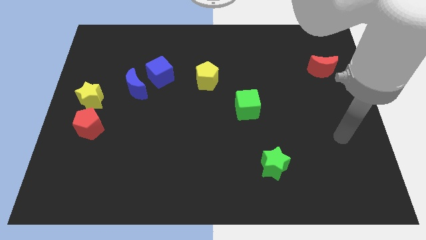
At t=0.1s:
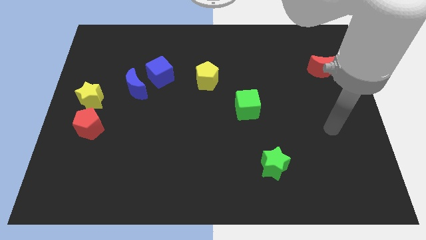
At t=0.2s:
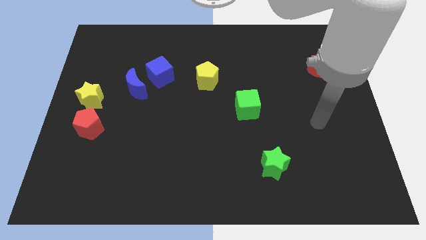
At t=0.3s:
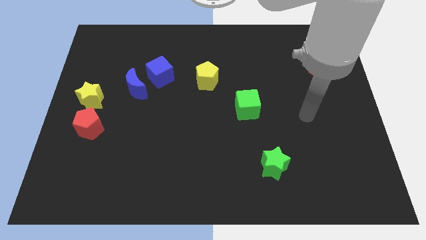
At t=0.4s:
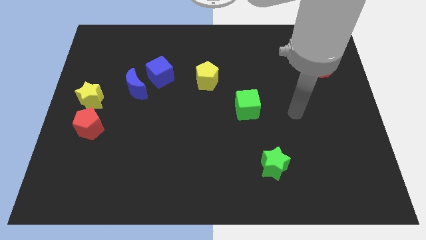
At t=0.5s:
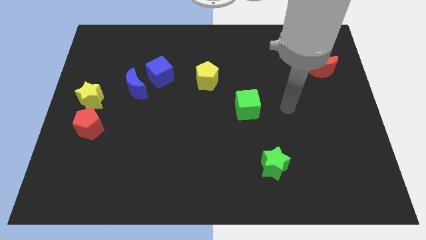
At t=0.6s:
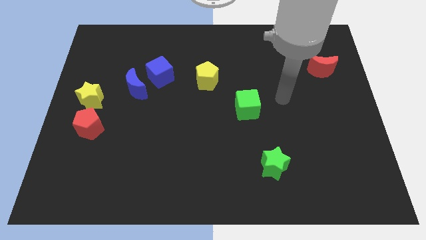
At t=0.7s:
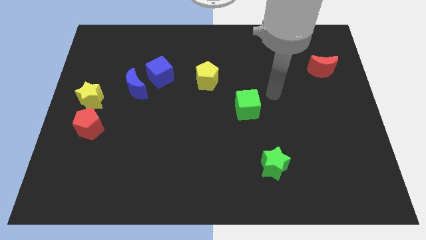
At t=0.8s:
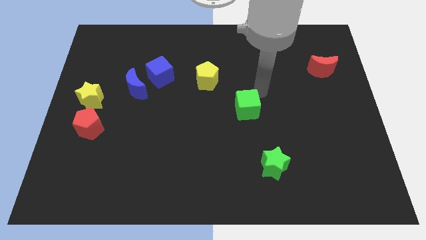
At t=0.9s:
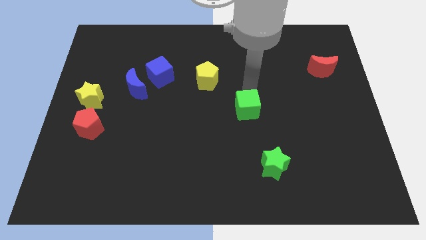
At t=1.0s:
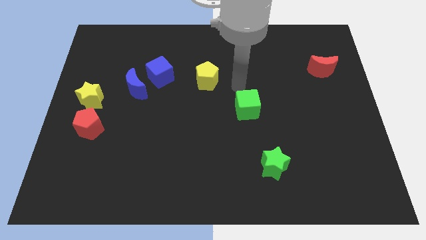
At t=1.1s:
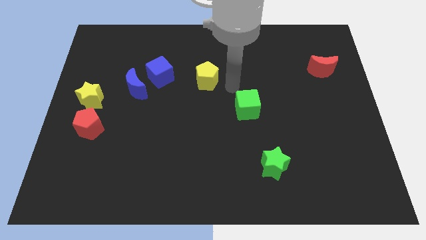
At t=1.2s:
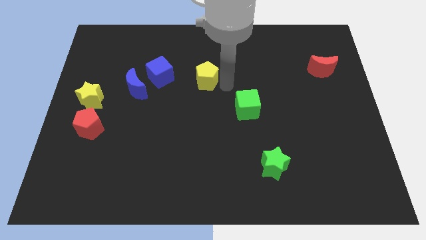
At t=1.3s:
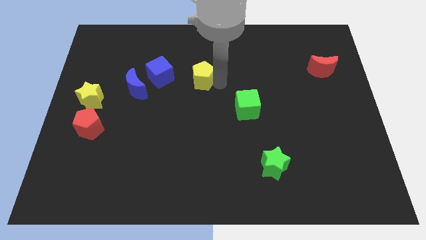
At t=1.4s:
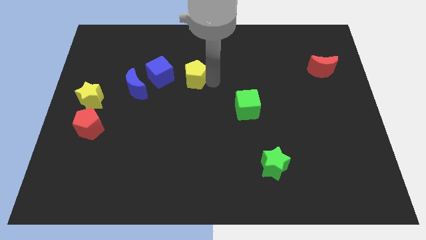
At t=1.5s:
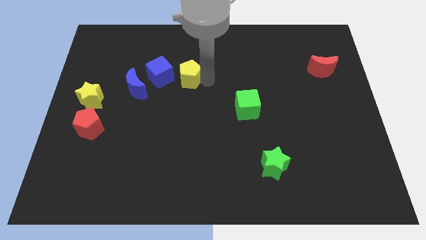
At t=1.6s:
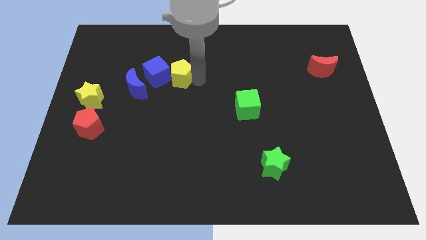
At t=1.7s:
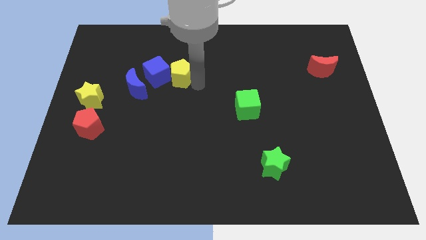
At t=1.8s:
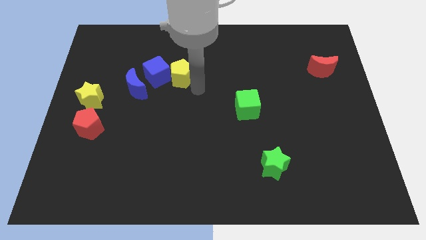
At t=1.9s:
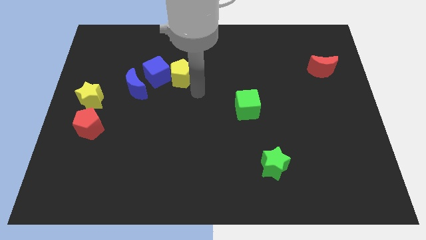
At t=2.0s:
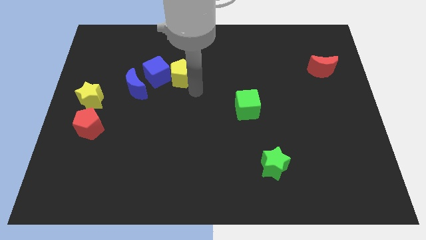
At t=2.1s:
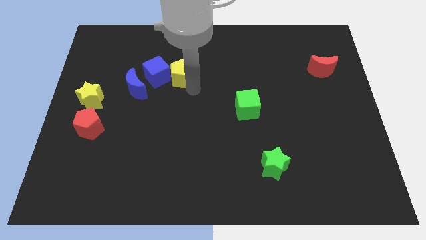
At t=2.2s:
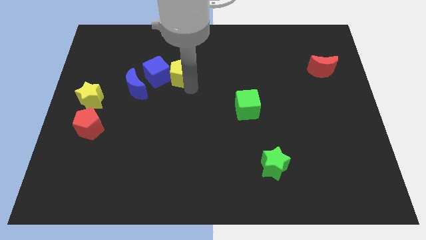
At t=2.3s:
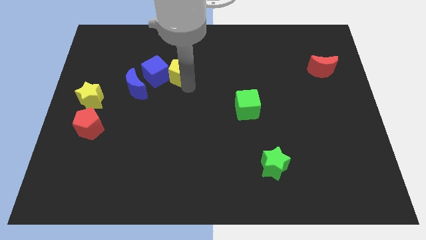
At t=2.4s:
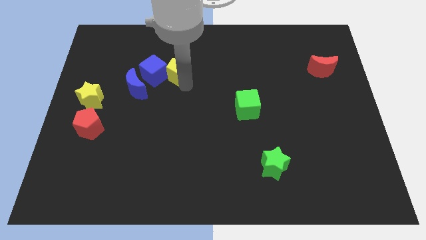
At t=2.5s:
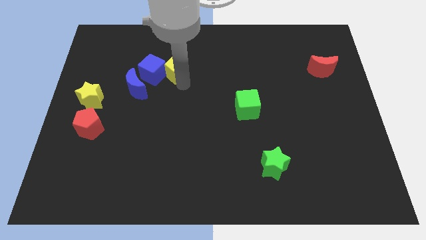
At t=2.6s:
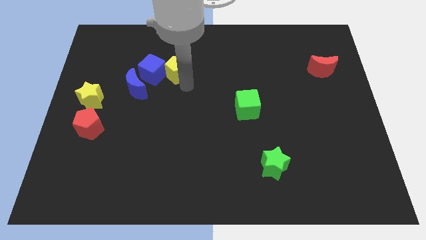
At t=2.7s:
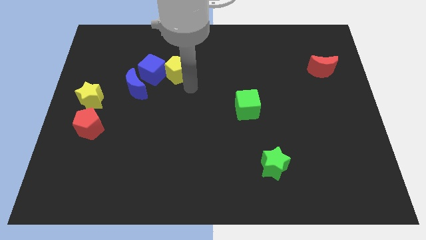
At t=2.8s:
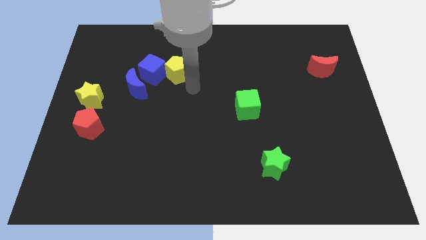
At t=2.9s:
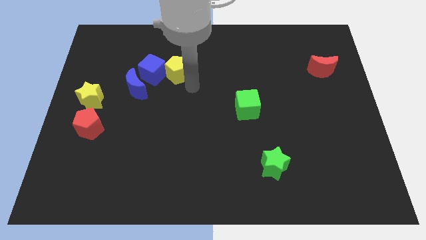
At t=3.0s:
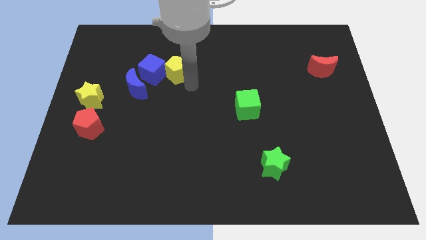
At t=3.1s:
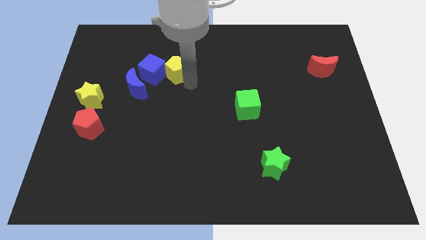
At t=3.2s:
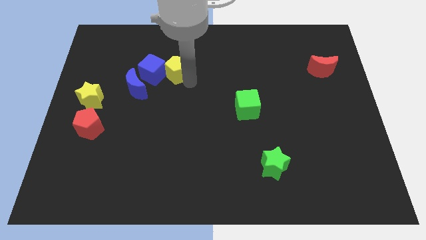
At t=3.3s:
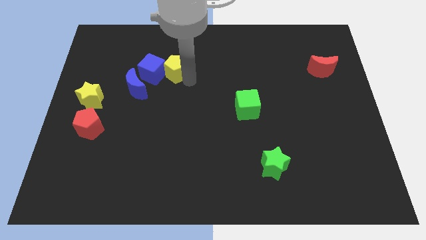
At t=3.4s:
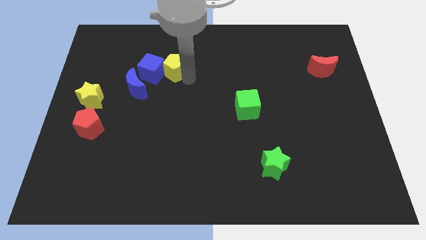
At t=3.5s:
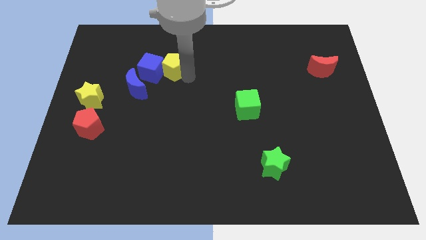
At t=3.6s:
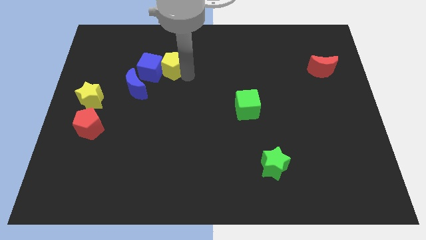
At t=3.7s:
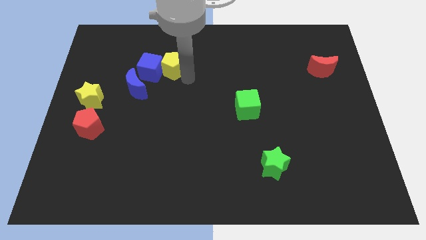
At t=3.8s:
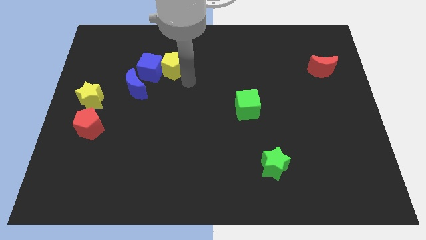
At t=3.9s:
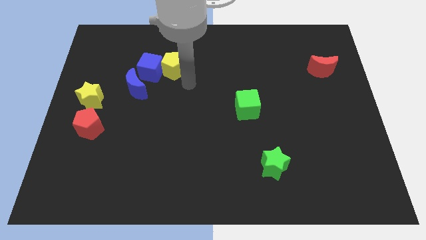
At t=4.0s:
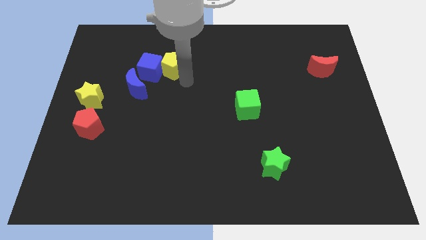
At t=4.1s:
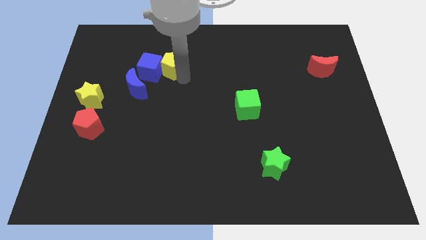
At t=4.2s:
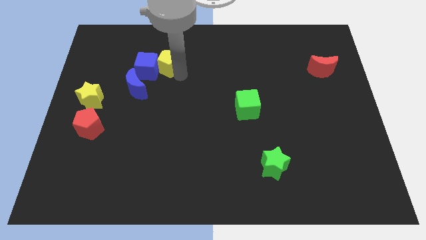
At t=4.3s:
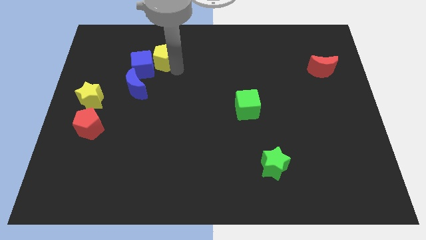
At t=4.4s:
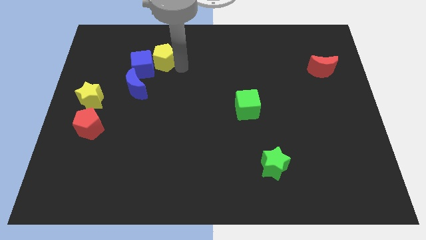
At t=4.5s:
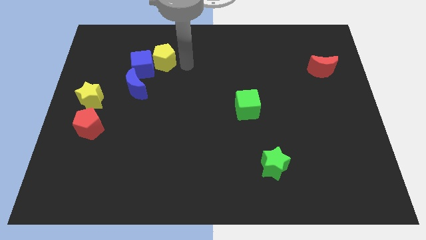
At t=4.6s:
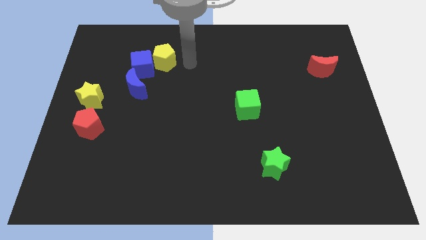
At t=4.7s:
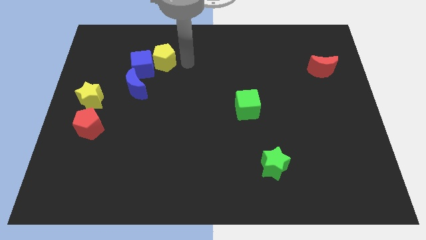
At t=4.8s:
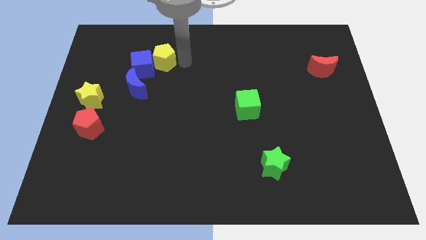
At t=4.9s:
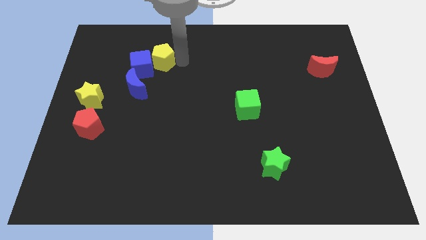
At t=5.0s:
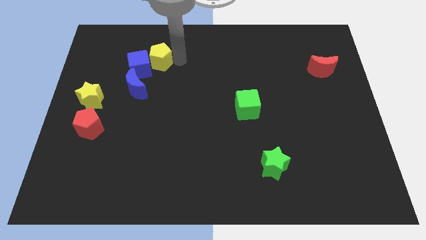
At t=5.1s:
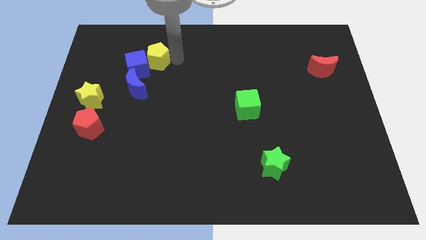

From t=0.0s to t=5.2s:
move the yellow pentagon to the top of the blue moon

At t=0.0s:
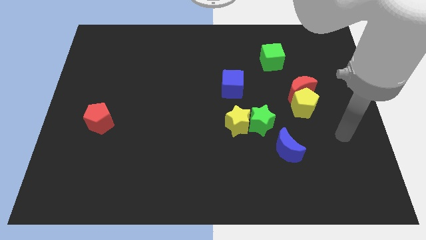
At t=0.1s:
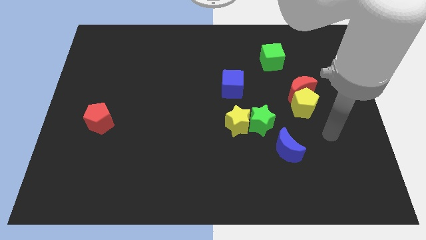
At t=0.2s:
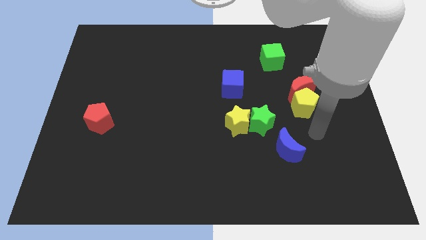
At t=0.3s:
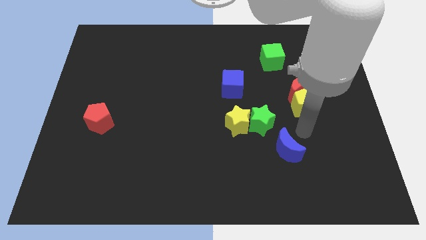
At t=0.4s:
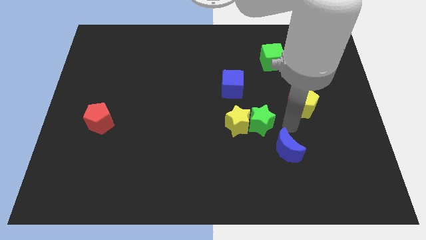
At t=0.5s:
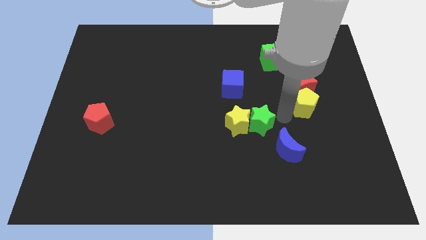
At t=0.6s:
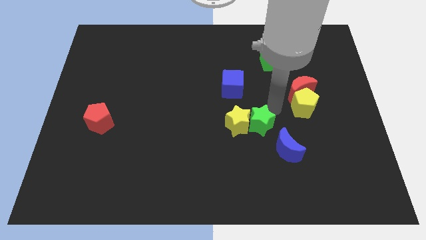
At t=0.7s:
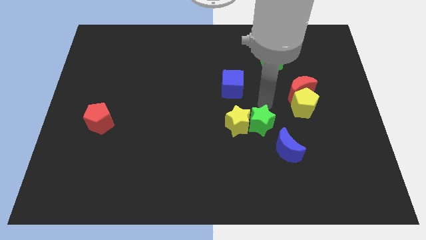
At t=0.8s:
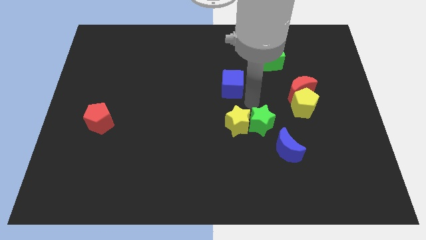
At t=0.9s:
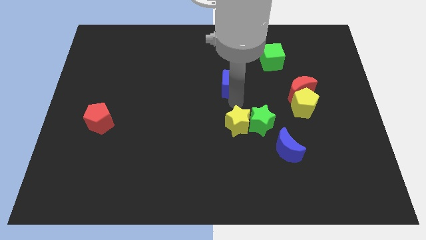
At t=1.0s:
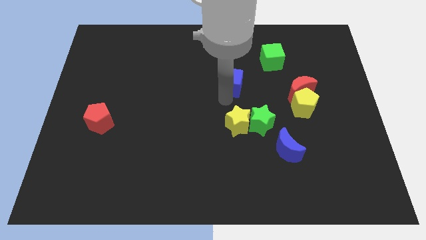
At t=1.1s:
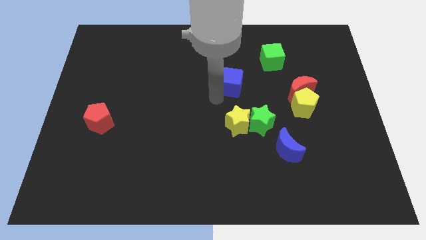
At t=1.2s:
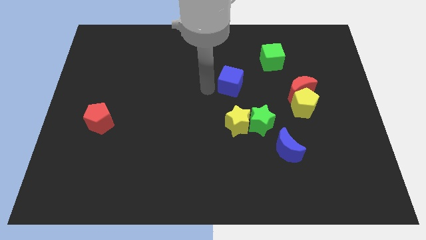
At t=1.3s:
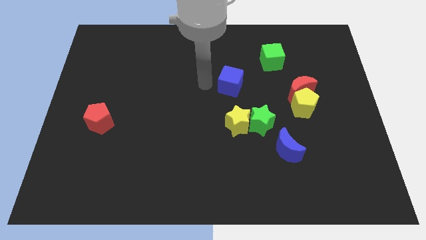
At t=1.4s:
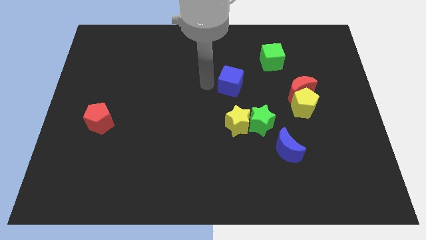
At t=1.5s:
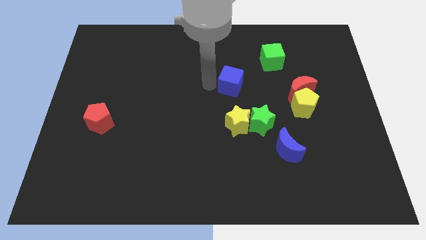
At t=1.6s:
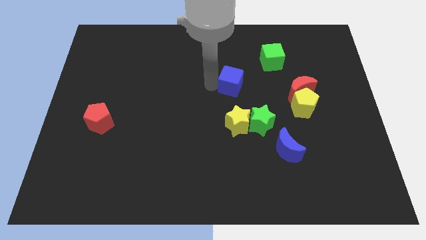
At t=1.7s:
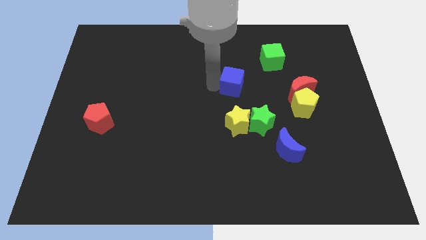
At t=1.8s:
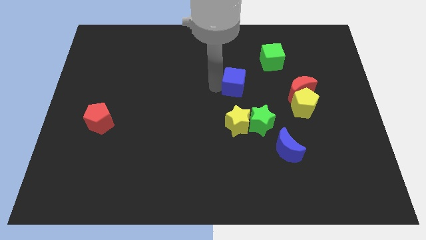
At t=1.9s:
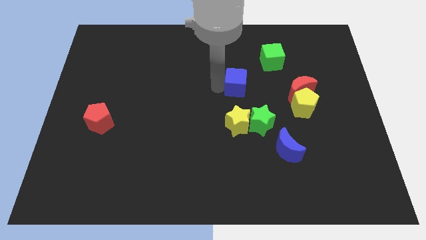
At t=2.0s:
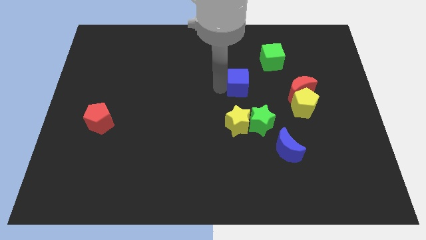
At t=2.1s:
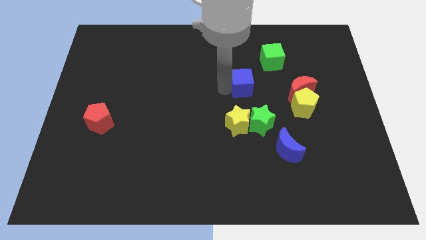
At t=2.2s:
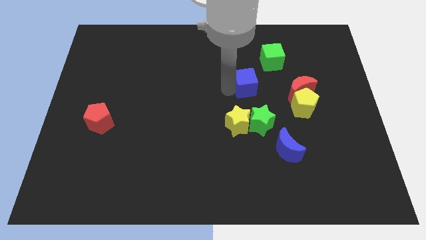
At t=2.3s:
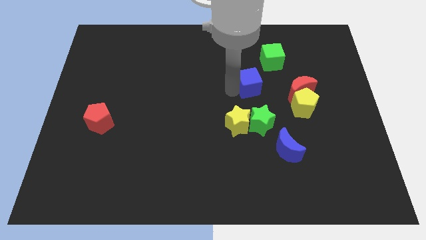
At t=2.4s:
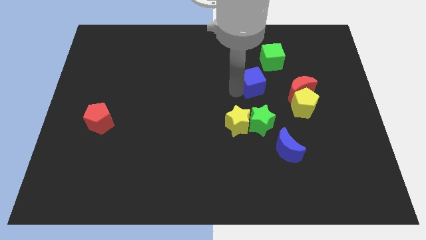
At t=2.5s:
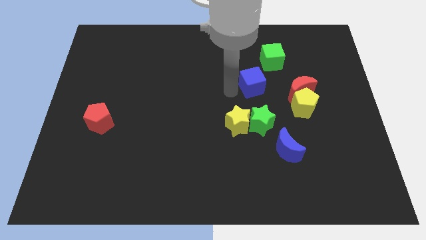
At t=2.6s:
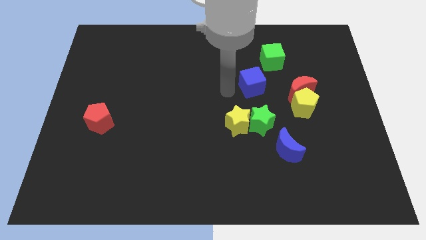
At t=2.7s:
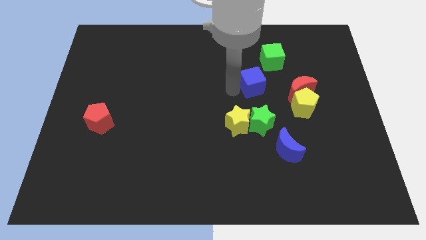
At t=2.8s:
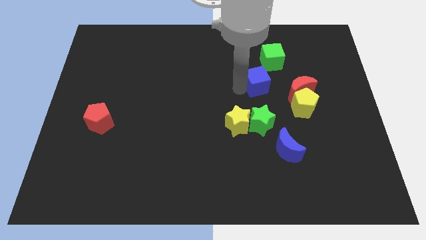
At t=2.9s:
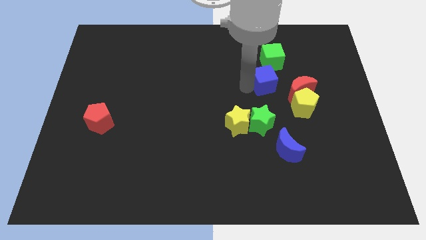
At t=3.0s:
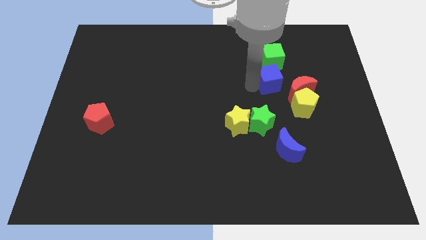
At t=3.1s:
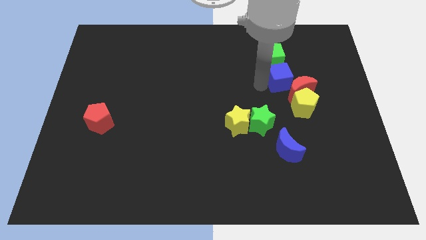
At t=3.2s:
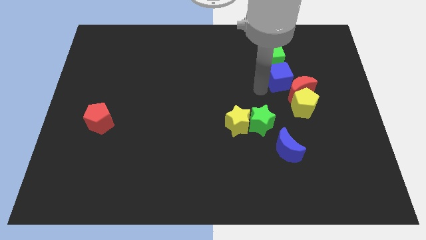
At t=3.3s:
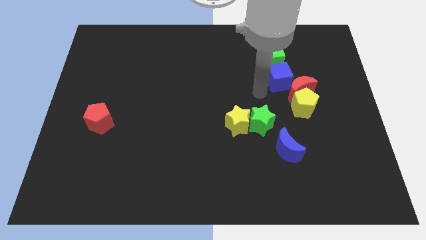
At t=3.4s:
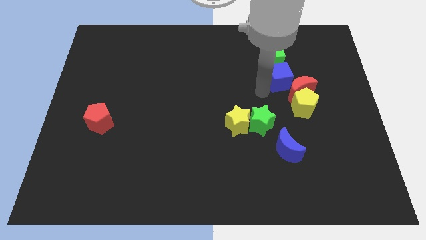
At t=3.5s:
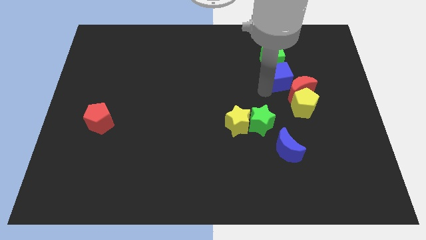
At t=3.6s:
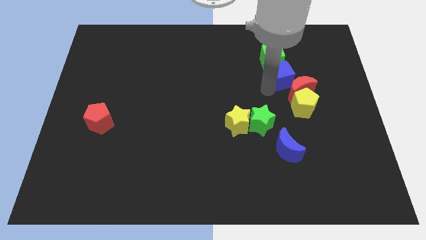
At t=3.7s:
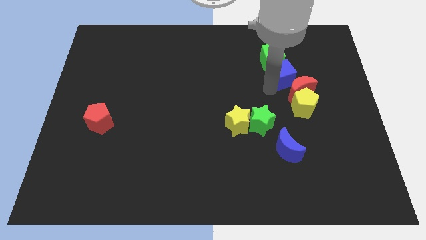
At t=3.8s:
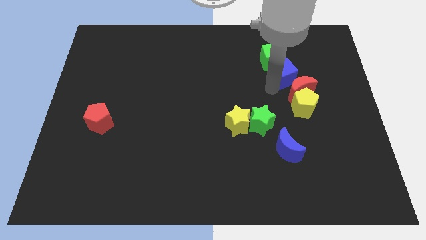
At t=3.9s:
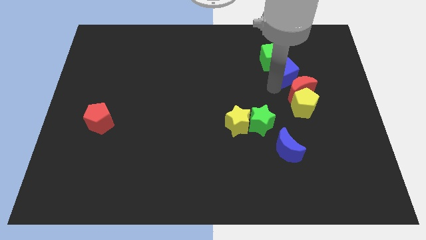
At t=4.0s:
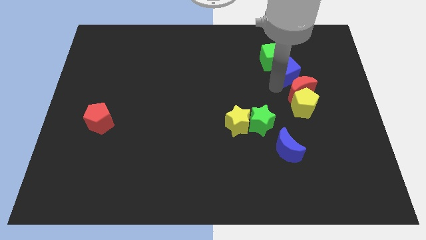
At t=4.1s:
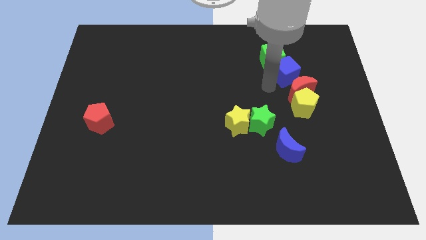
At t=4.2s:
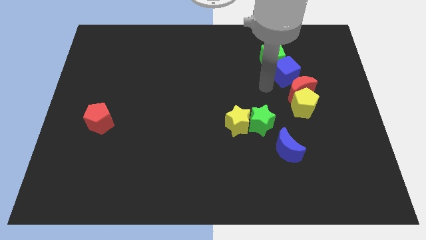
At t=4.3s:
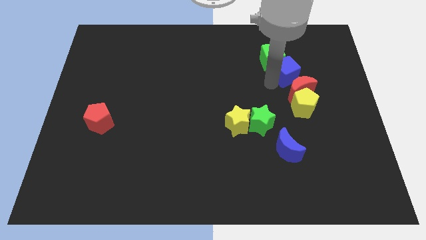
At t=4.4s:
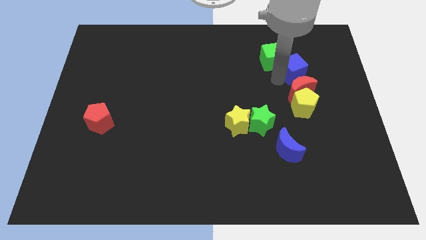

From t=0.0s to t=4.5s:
slide the blue cube to the right of the green cube
